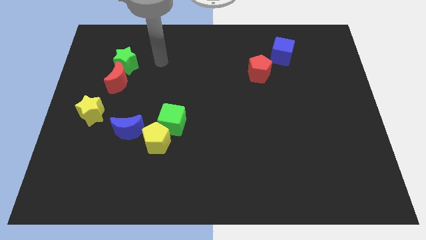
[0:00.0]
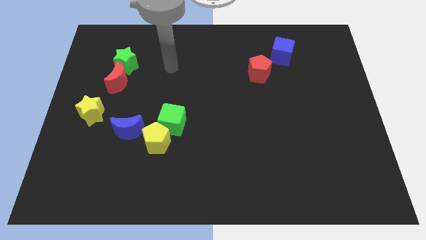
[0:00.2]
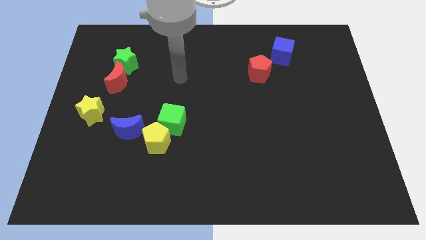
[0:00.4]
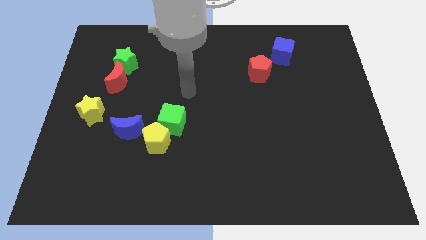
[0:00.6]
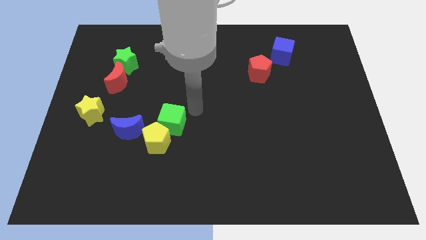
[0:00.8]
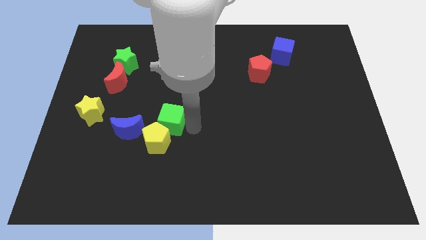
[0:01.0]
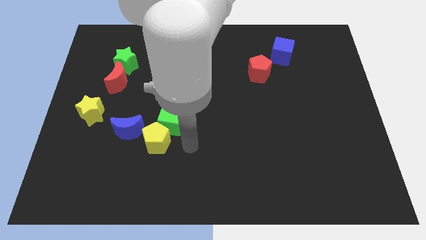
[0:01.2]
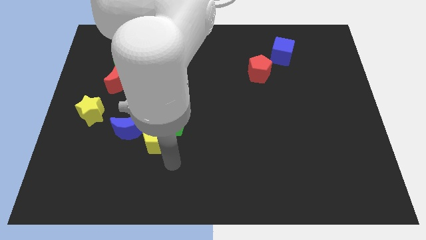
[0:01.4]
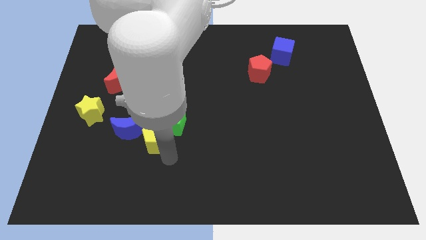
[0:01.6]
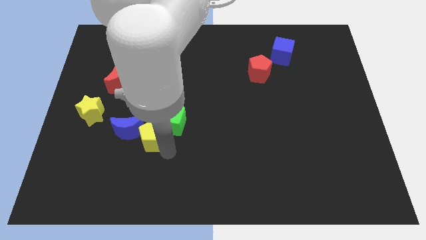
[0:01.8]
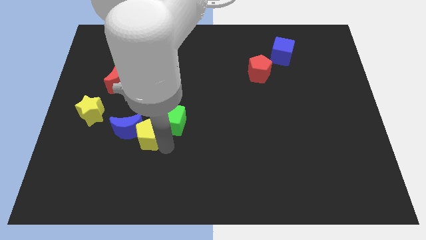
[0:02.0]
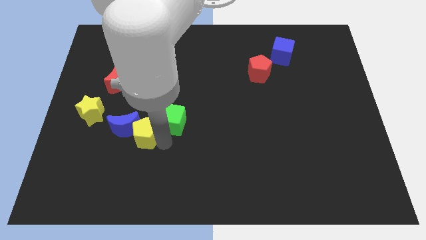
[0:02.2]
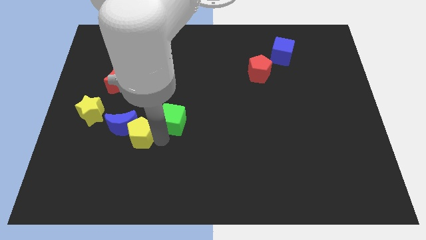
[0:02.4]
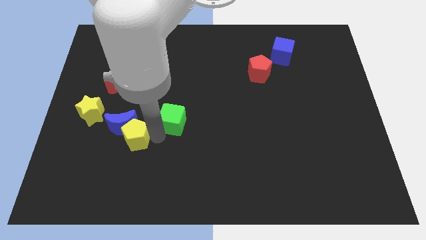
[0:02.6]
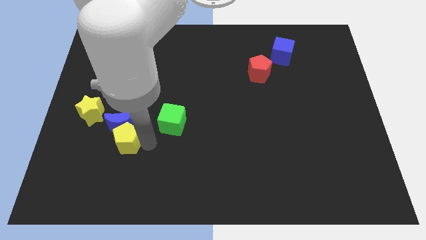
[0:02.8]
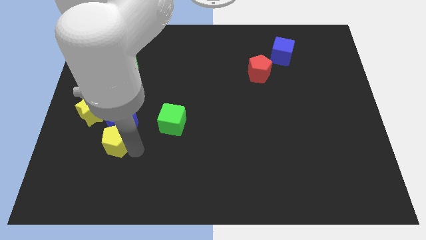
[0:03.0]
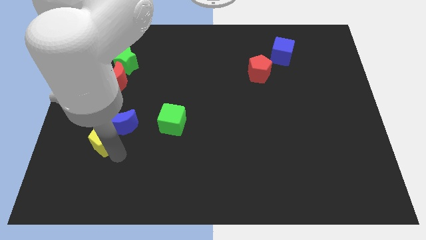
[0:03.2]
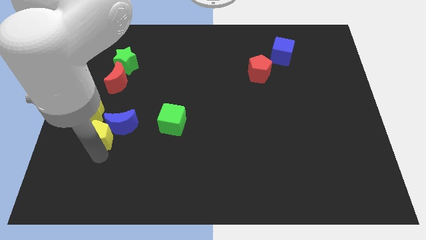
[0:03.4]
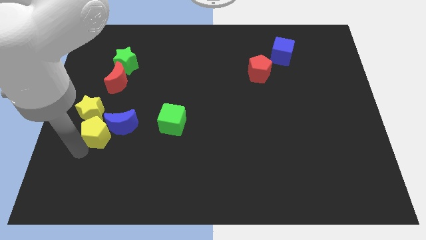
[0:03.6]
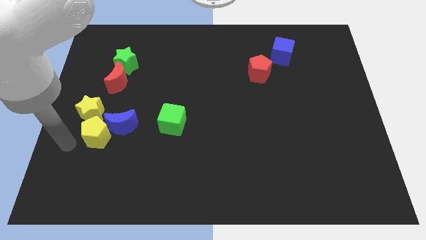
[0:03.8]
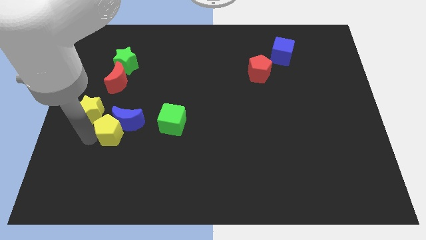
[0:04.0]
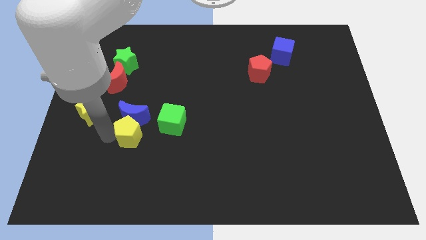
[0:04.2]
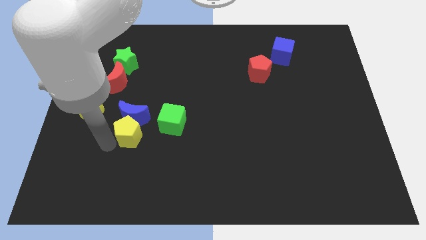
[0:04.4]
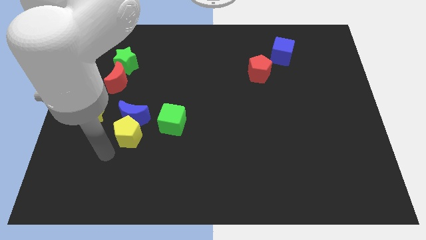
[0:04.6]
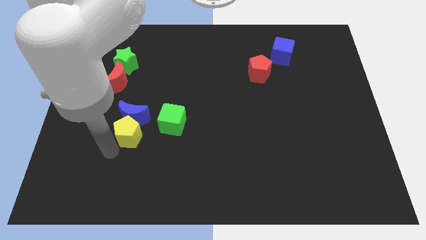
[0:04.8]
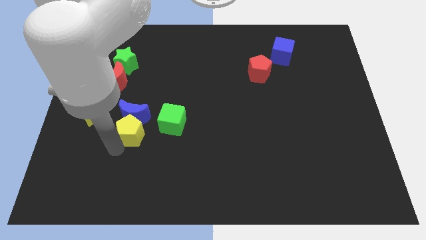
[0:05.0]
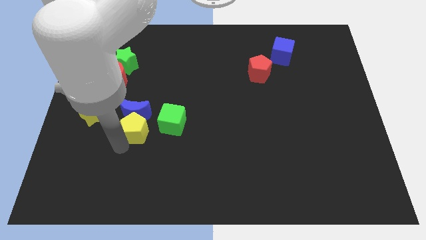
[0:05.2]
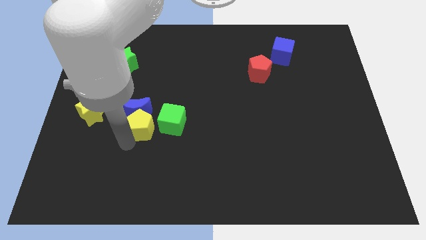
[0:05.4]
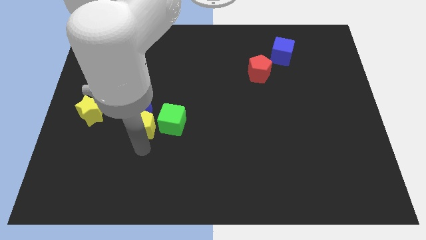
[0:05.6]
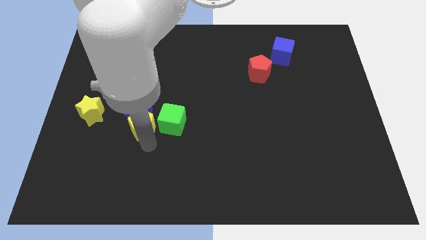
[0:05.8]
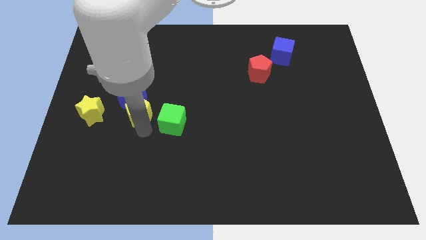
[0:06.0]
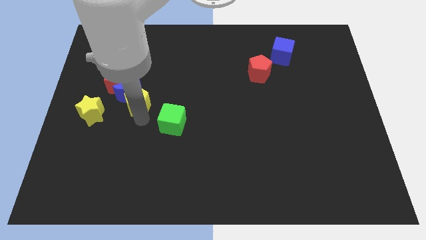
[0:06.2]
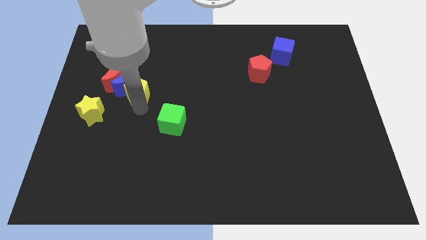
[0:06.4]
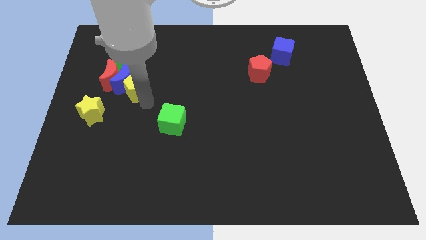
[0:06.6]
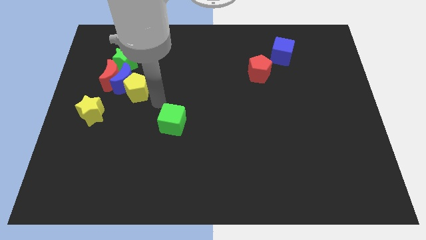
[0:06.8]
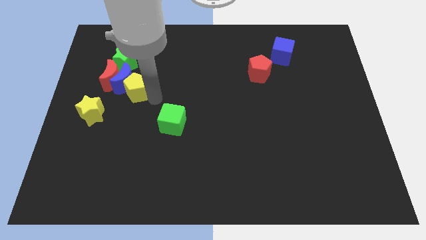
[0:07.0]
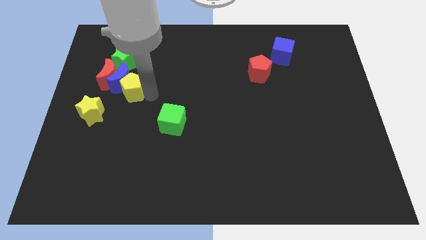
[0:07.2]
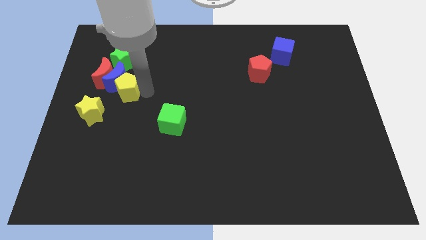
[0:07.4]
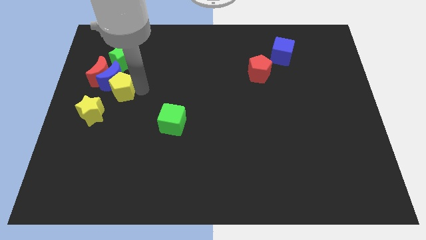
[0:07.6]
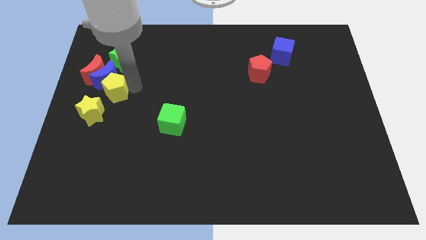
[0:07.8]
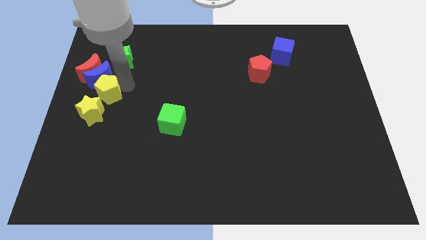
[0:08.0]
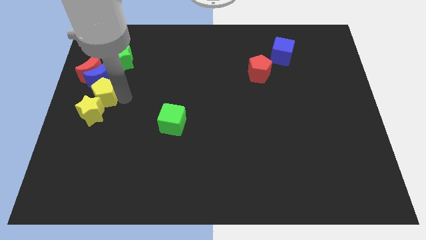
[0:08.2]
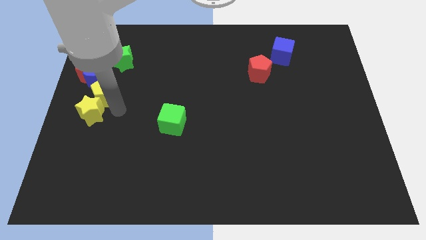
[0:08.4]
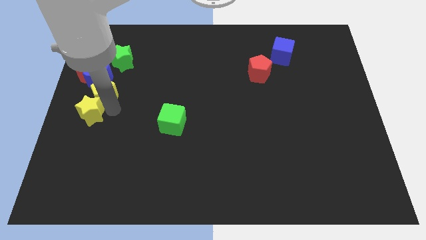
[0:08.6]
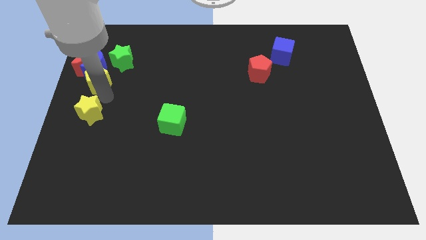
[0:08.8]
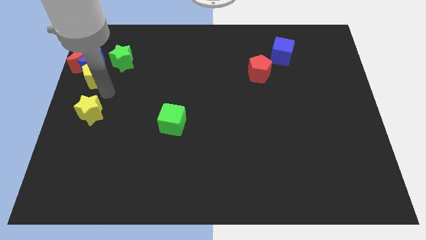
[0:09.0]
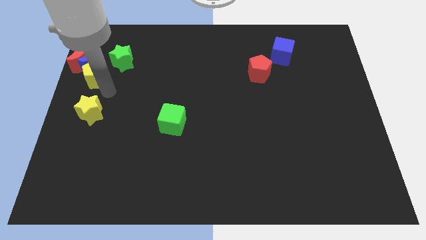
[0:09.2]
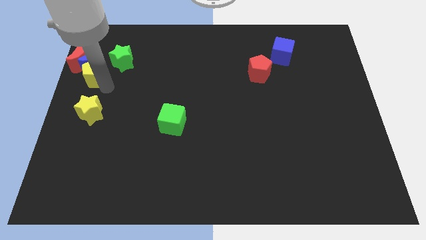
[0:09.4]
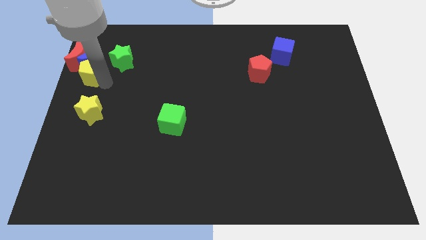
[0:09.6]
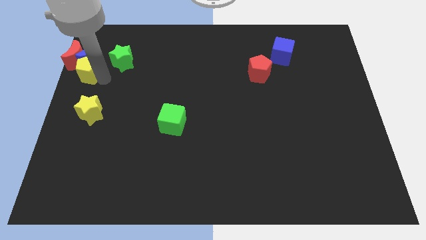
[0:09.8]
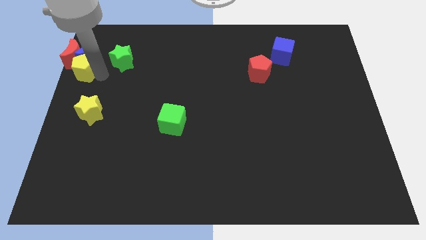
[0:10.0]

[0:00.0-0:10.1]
slide the yellow pentagon to the red moon

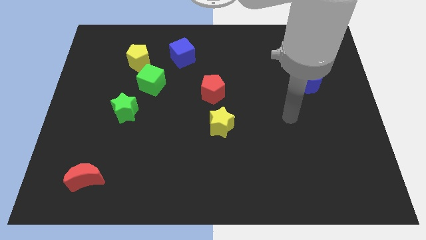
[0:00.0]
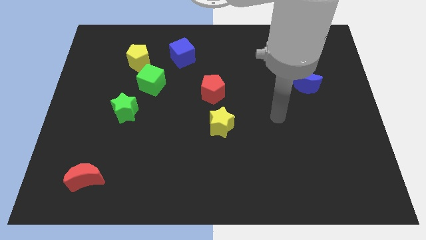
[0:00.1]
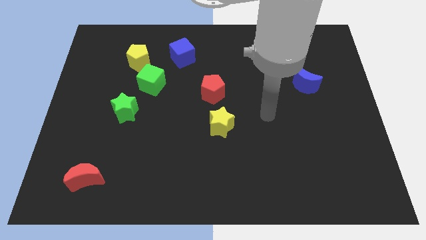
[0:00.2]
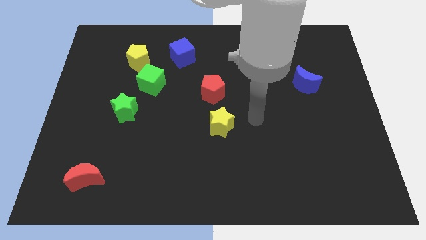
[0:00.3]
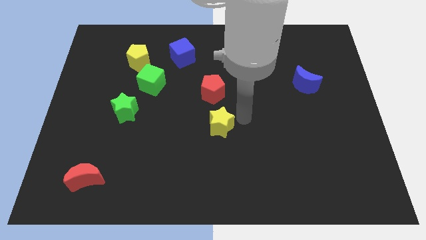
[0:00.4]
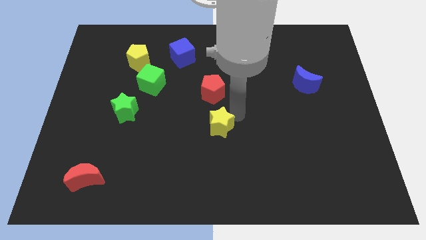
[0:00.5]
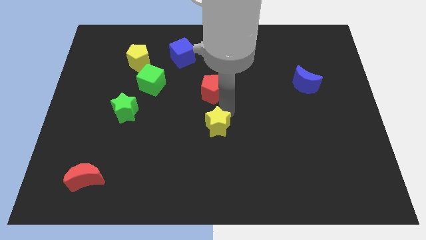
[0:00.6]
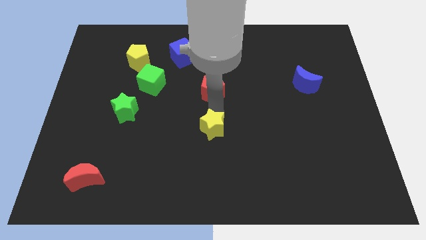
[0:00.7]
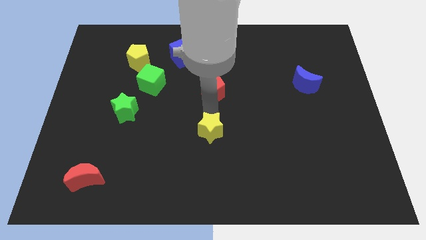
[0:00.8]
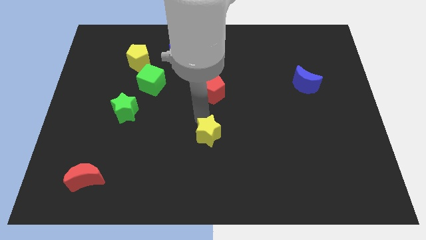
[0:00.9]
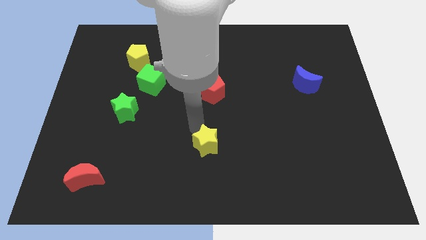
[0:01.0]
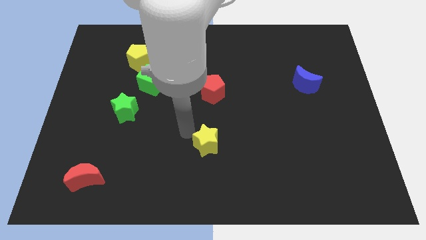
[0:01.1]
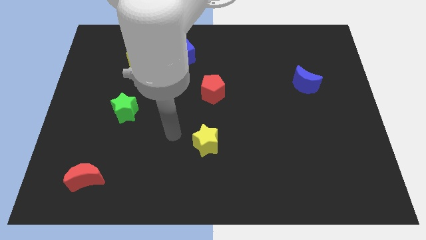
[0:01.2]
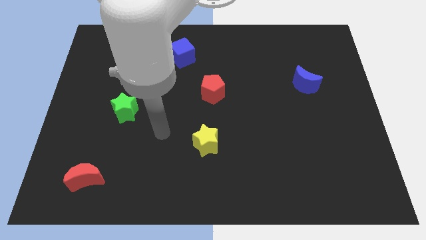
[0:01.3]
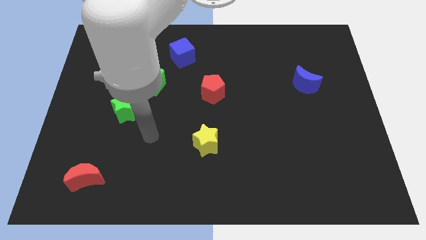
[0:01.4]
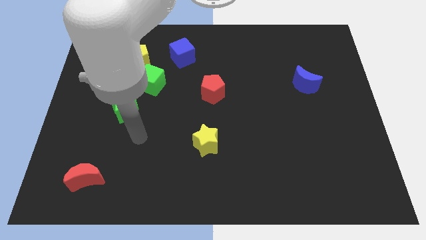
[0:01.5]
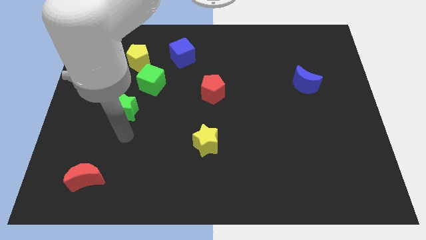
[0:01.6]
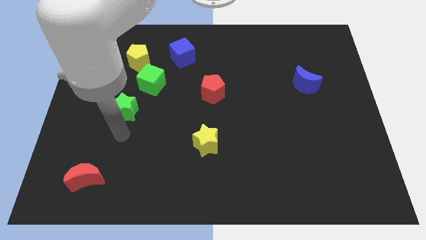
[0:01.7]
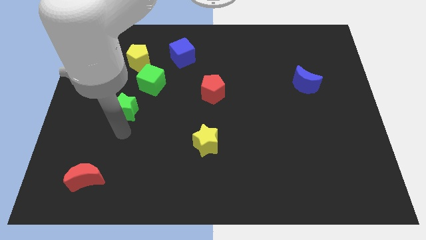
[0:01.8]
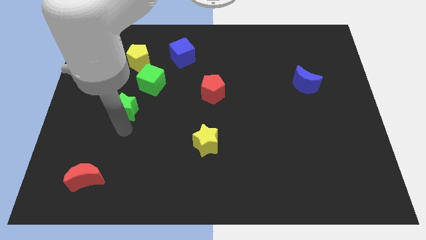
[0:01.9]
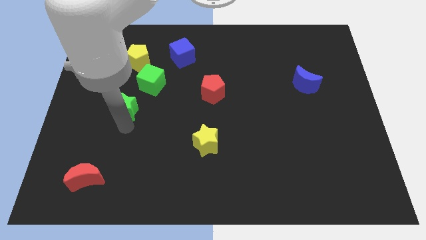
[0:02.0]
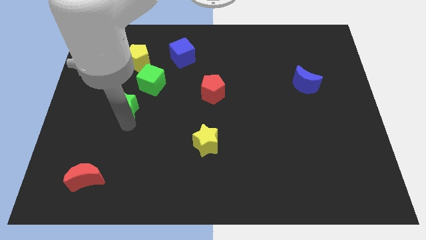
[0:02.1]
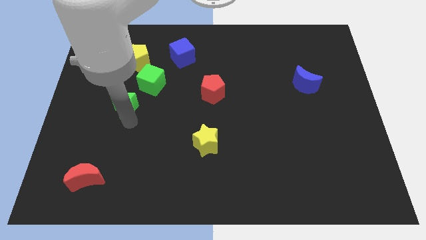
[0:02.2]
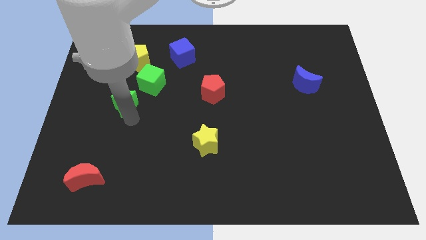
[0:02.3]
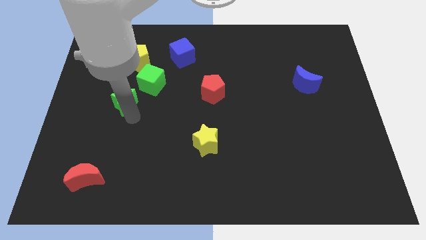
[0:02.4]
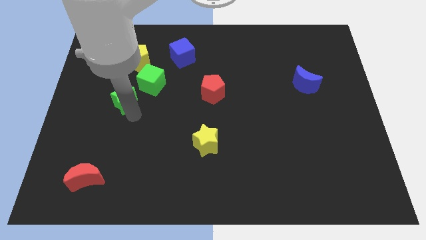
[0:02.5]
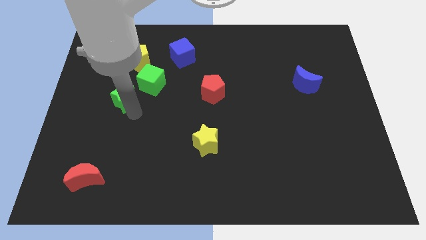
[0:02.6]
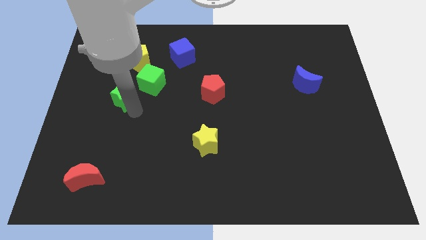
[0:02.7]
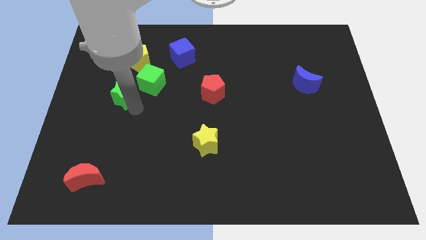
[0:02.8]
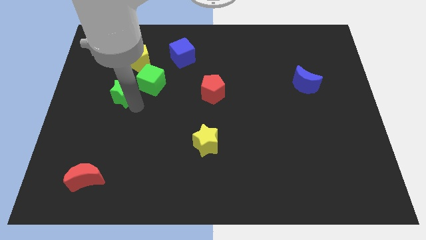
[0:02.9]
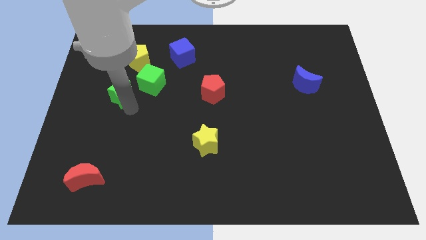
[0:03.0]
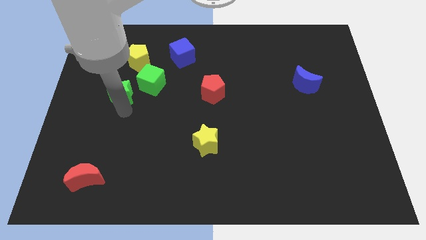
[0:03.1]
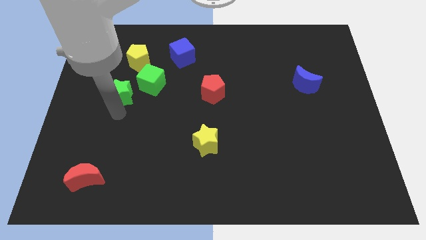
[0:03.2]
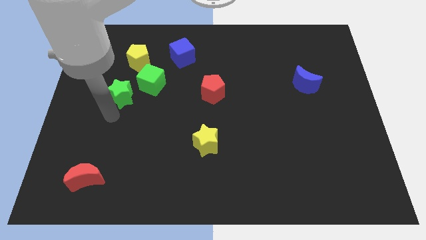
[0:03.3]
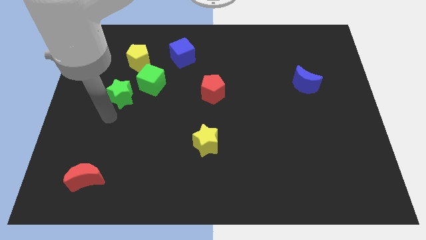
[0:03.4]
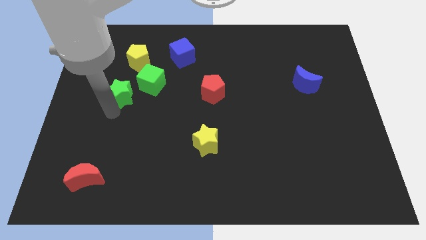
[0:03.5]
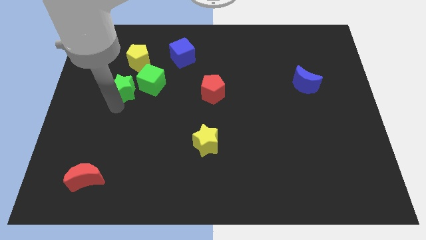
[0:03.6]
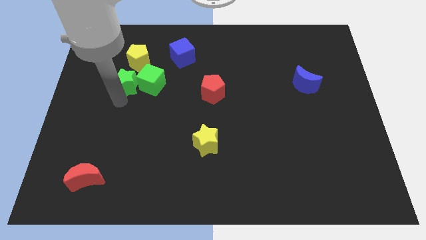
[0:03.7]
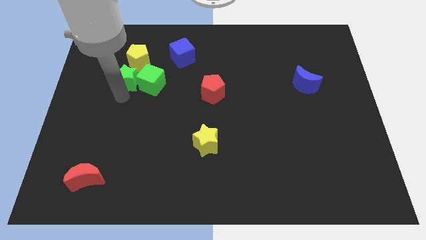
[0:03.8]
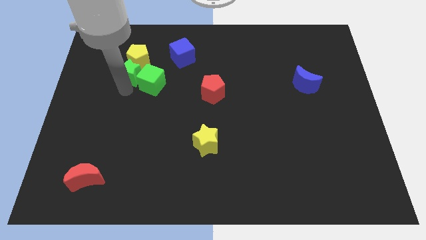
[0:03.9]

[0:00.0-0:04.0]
push the green star close to the yellow pentagon
